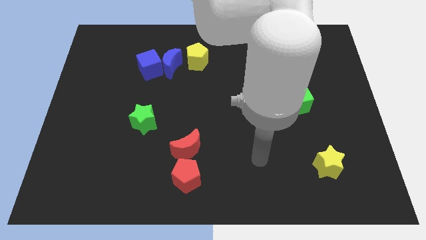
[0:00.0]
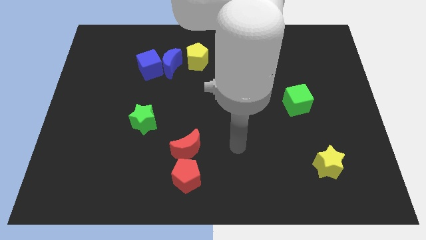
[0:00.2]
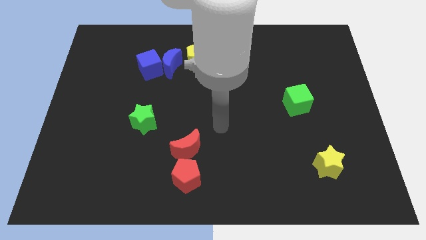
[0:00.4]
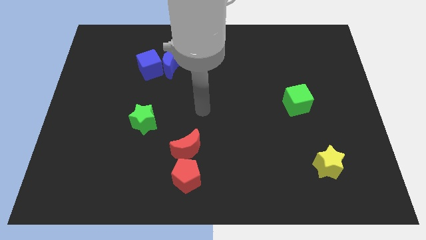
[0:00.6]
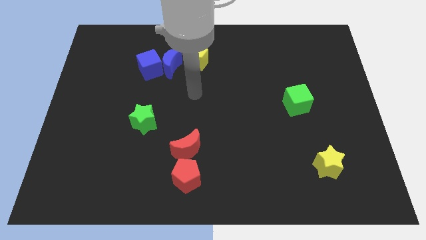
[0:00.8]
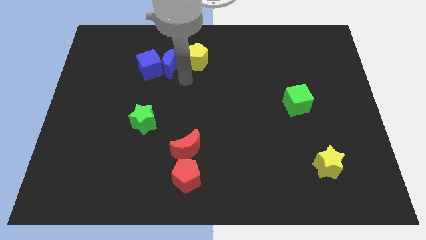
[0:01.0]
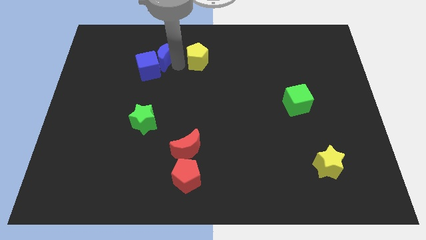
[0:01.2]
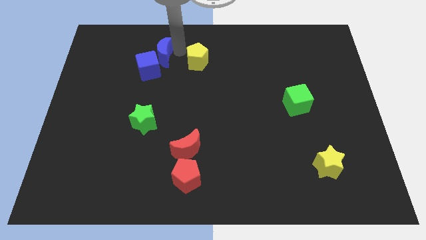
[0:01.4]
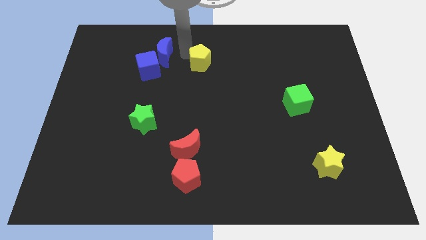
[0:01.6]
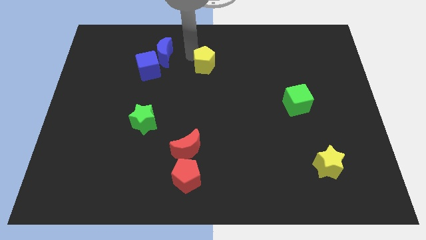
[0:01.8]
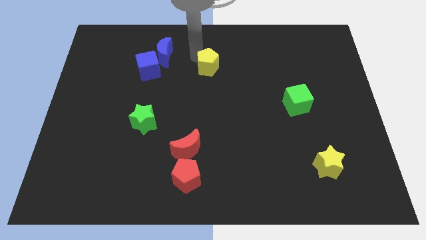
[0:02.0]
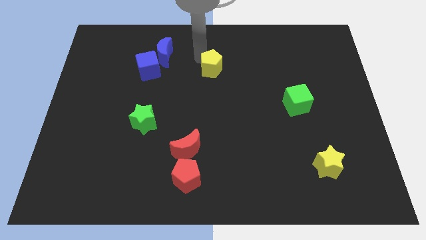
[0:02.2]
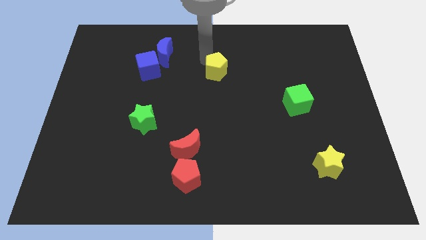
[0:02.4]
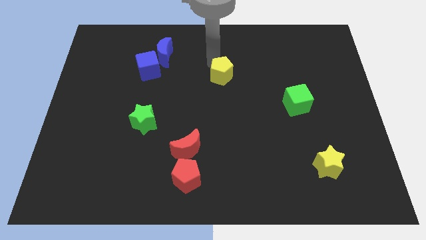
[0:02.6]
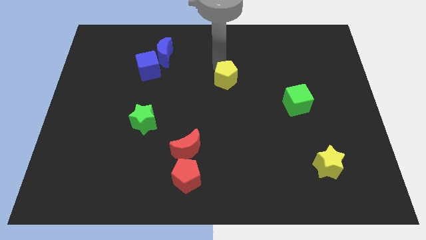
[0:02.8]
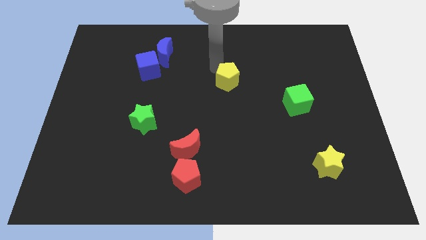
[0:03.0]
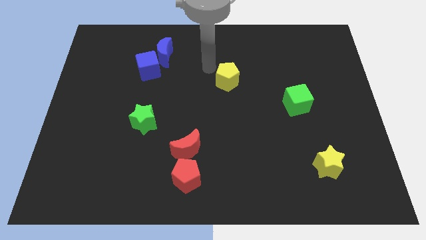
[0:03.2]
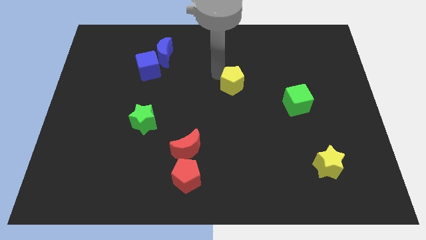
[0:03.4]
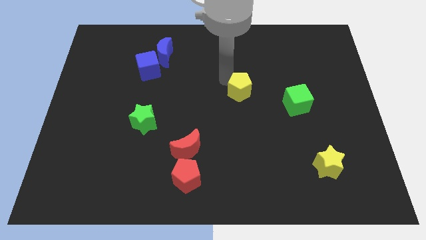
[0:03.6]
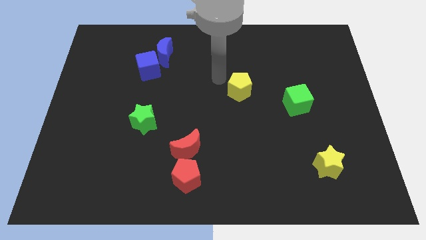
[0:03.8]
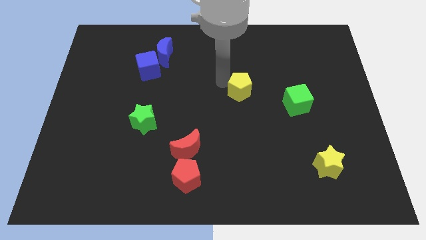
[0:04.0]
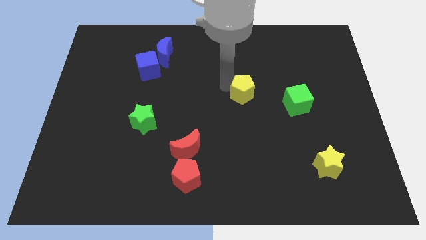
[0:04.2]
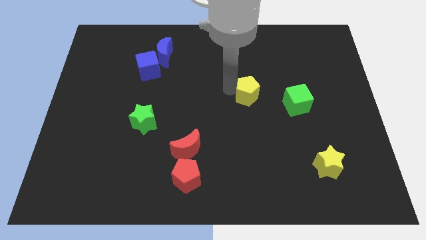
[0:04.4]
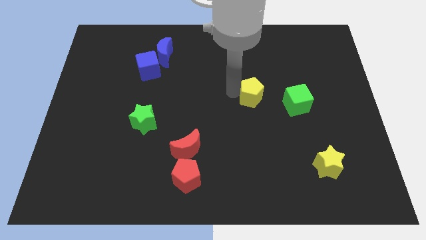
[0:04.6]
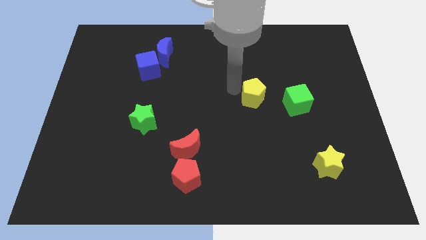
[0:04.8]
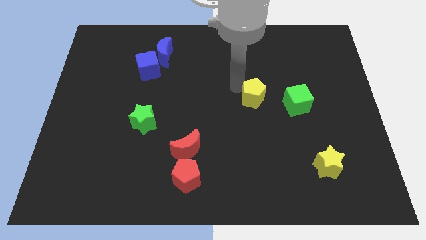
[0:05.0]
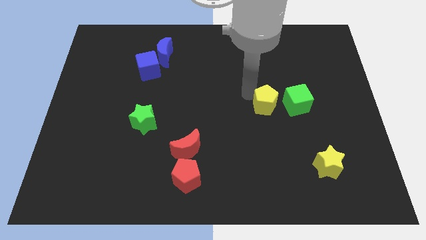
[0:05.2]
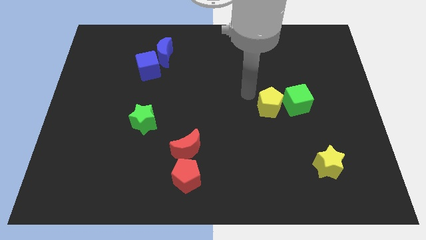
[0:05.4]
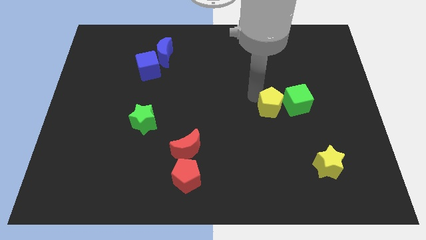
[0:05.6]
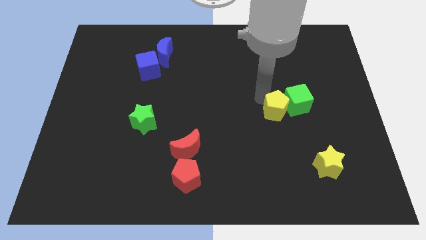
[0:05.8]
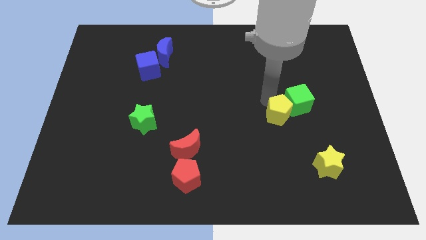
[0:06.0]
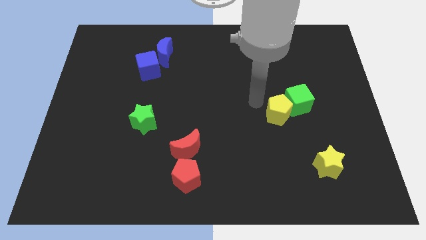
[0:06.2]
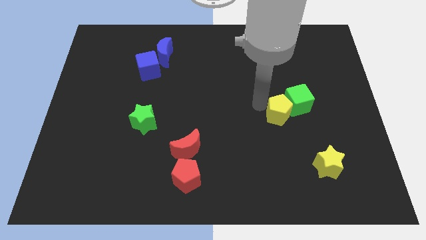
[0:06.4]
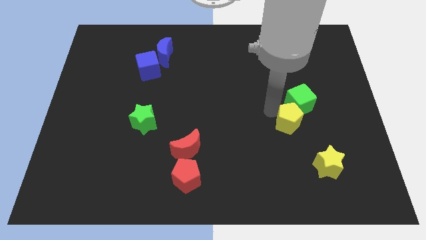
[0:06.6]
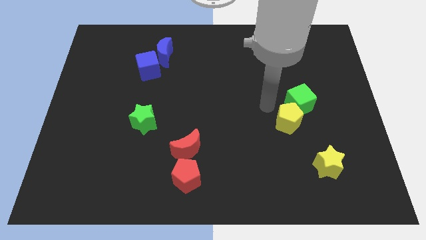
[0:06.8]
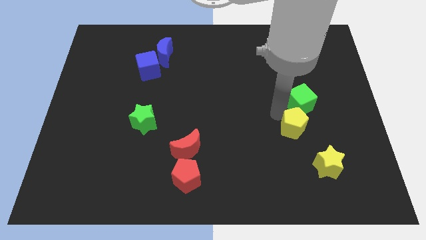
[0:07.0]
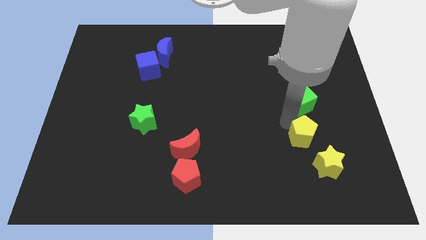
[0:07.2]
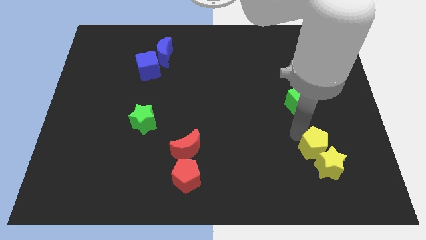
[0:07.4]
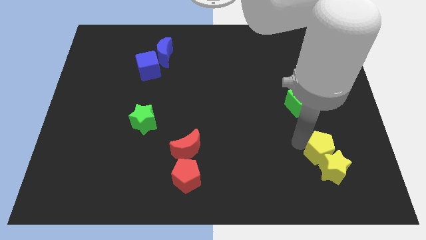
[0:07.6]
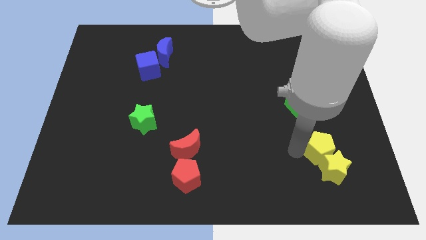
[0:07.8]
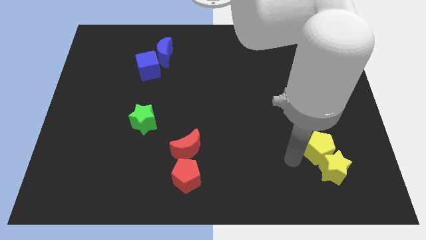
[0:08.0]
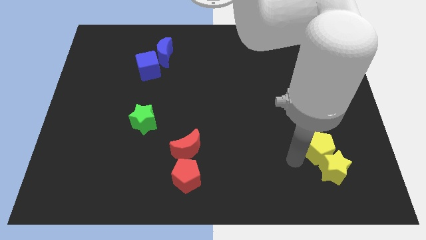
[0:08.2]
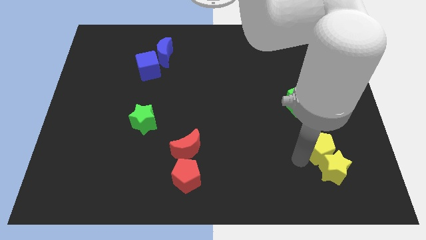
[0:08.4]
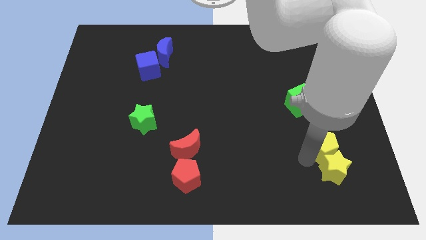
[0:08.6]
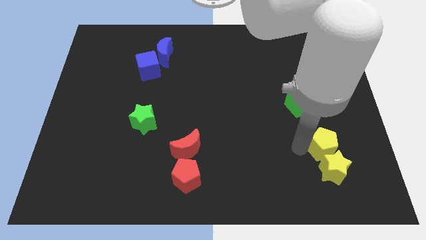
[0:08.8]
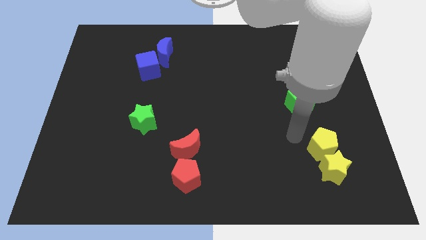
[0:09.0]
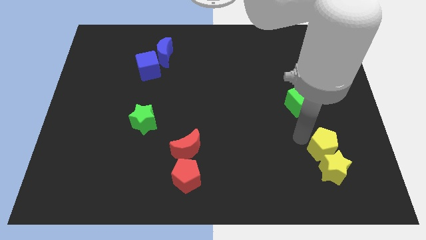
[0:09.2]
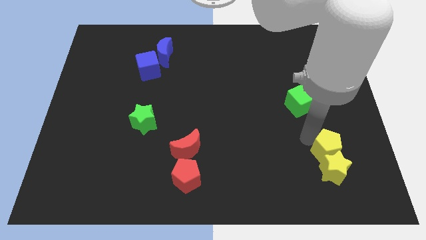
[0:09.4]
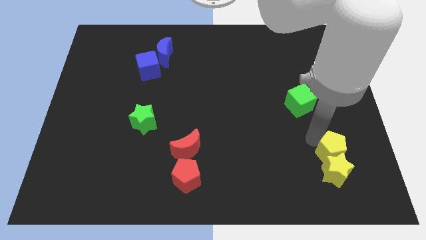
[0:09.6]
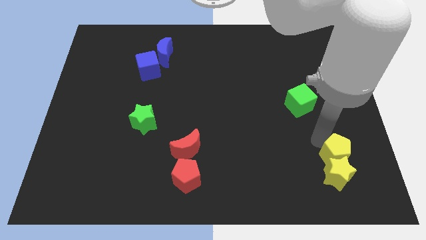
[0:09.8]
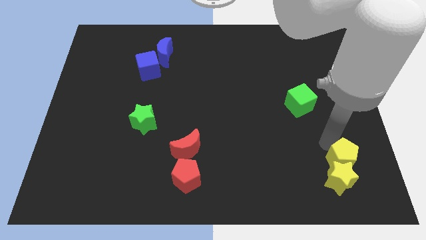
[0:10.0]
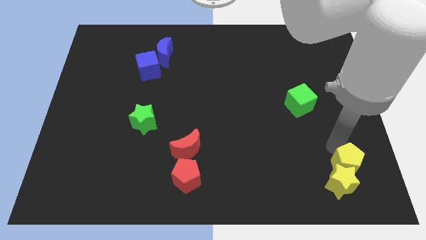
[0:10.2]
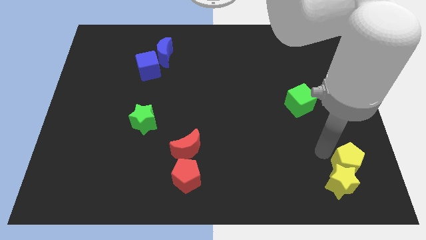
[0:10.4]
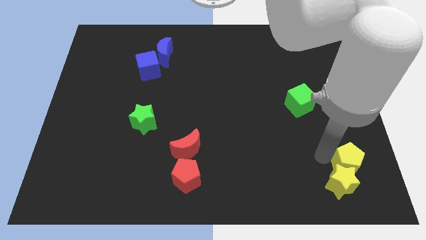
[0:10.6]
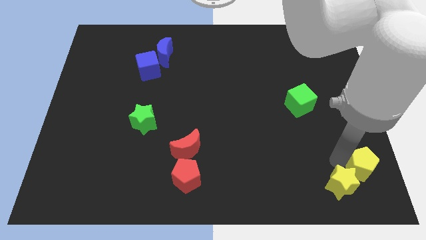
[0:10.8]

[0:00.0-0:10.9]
move the yellow pentagon to the lower right corner

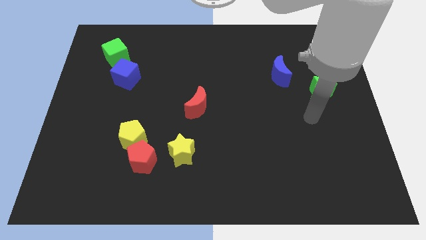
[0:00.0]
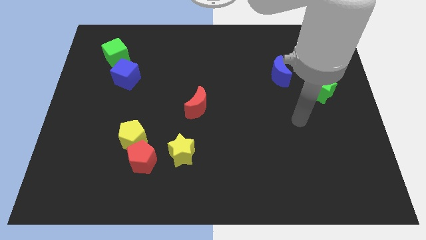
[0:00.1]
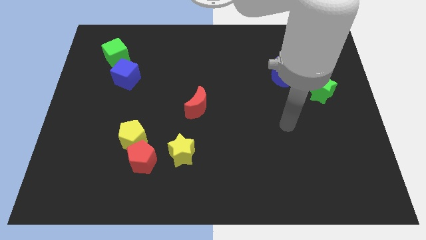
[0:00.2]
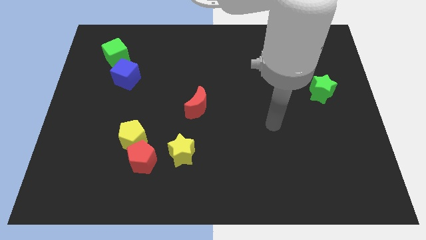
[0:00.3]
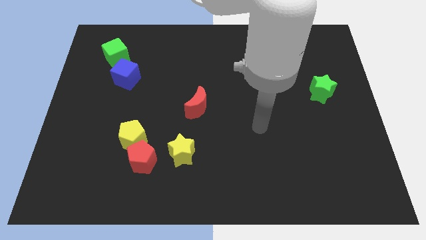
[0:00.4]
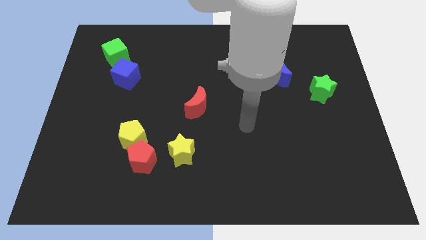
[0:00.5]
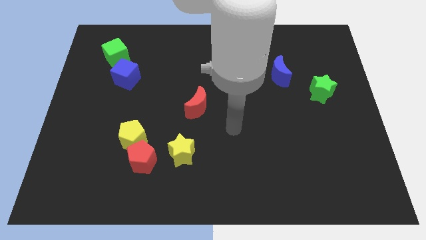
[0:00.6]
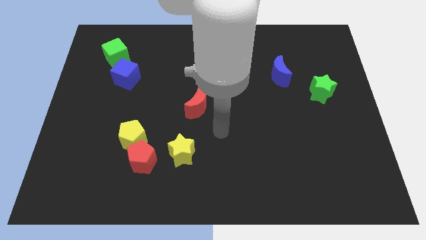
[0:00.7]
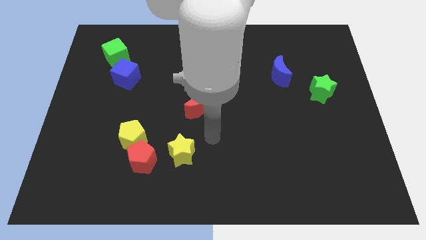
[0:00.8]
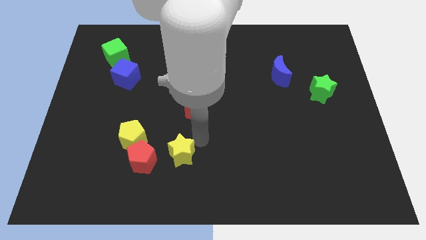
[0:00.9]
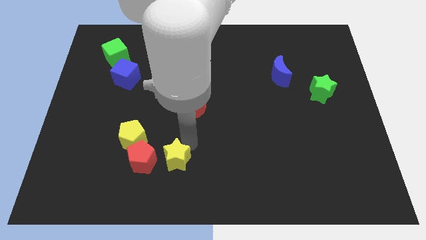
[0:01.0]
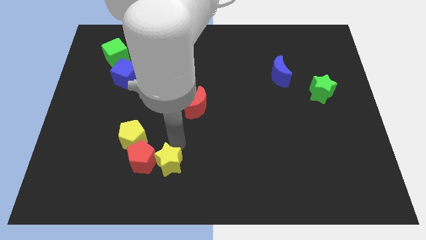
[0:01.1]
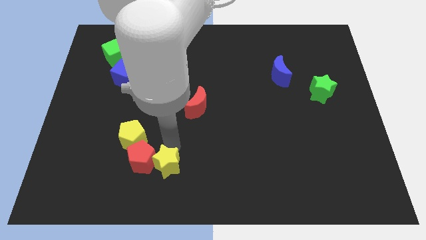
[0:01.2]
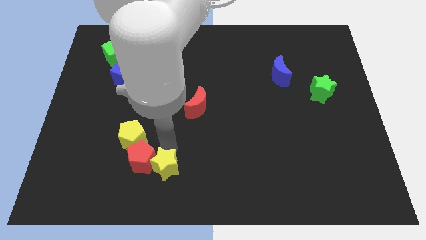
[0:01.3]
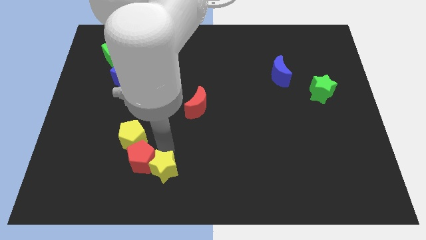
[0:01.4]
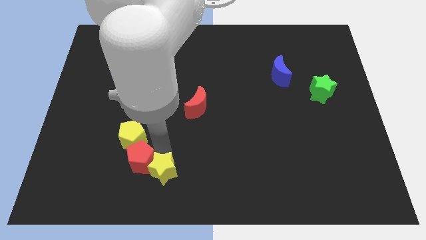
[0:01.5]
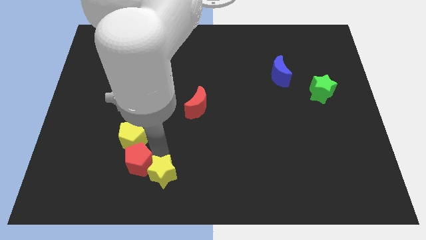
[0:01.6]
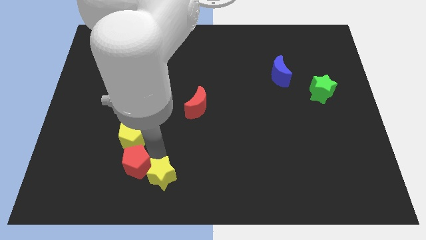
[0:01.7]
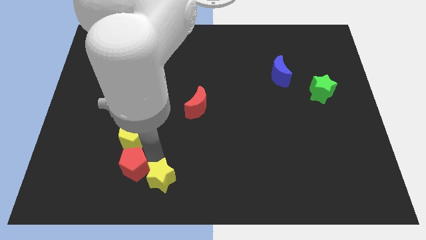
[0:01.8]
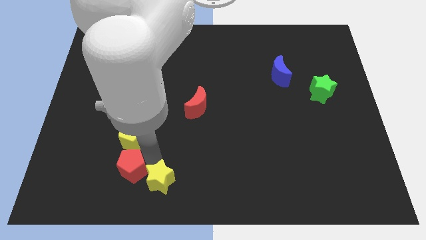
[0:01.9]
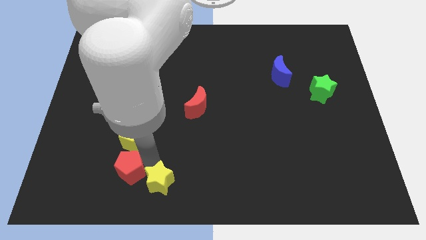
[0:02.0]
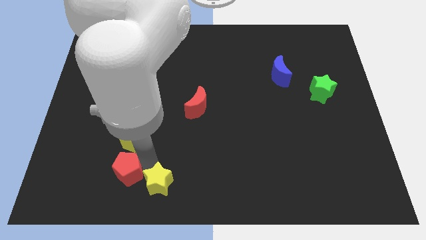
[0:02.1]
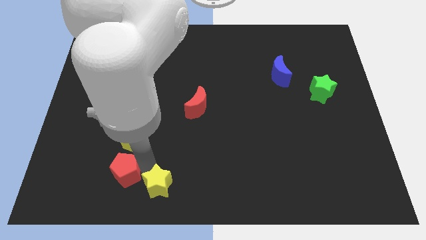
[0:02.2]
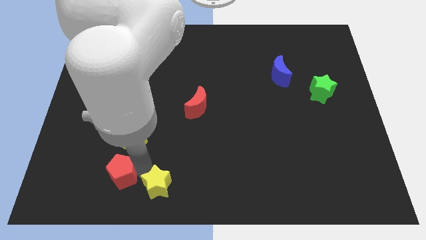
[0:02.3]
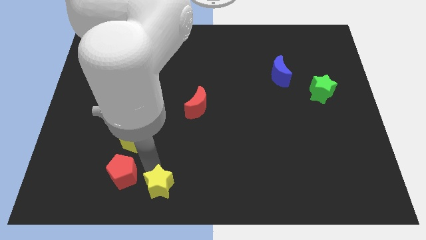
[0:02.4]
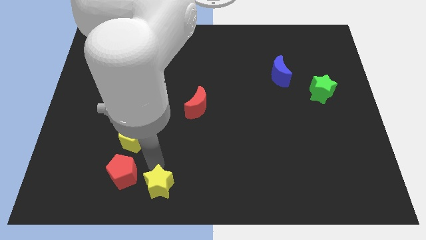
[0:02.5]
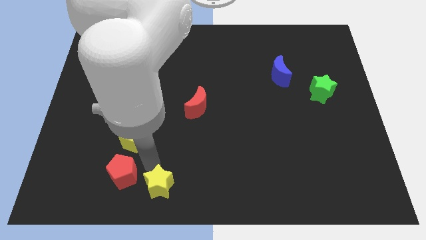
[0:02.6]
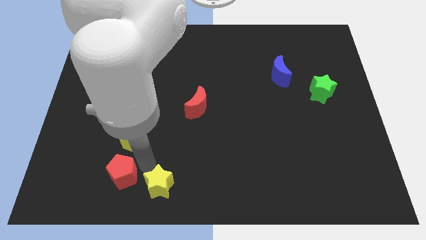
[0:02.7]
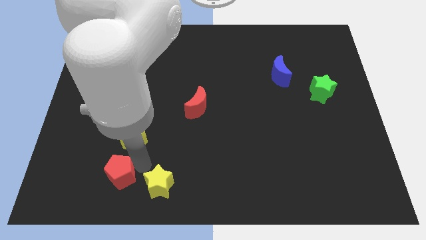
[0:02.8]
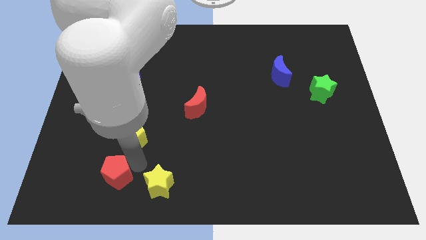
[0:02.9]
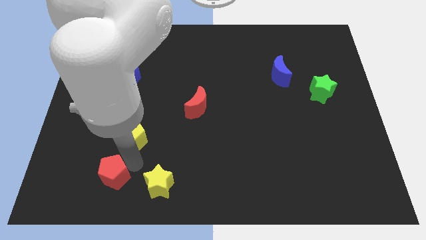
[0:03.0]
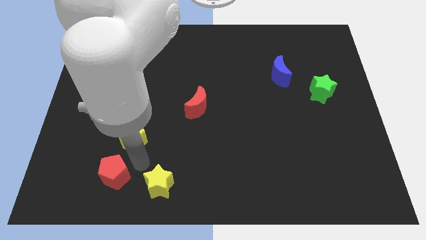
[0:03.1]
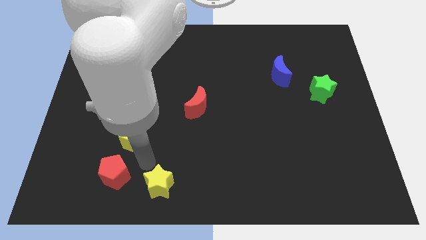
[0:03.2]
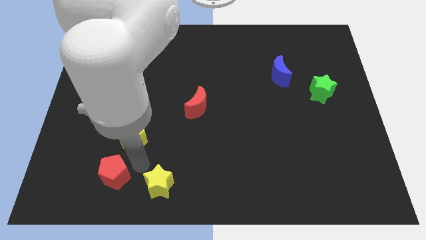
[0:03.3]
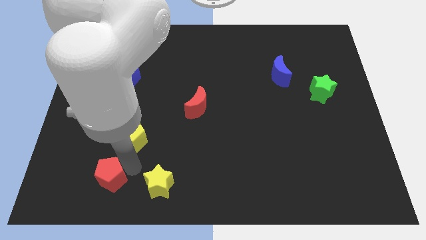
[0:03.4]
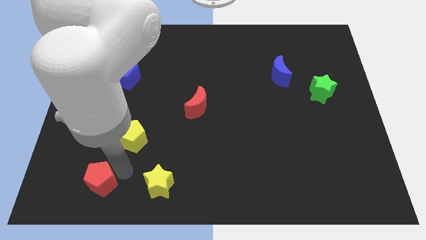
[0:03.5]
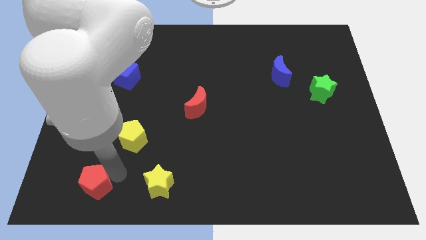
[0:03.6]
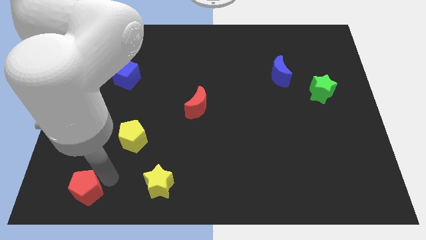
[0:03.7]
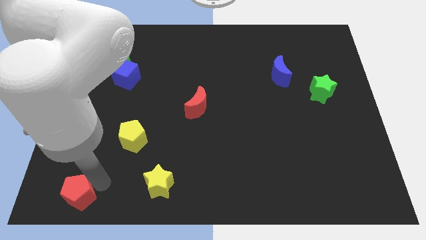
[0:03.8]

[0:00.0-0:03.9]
push the red pentagon to the bottom left corner
